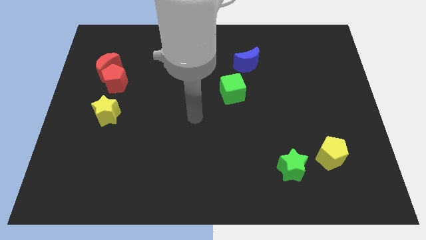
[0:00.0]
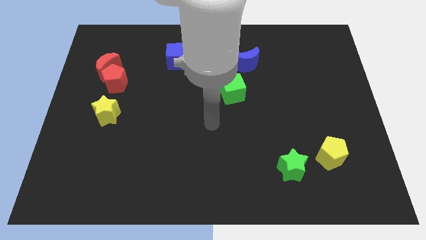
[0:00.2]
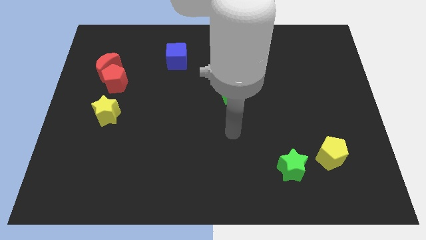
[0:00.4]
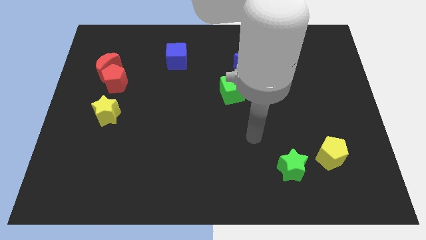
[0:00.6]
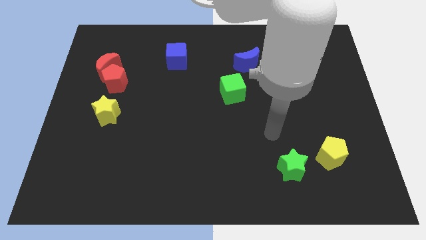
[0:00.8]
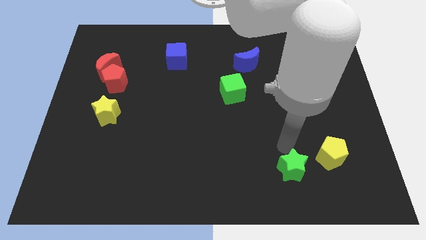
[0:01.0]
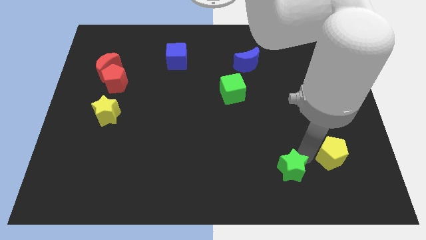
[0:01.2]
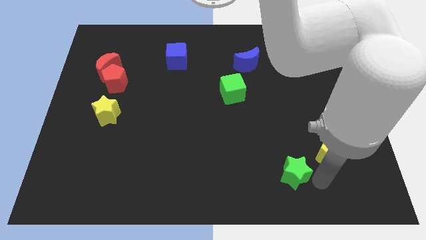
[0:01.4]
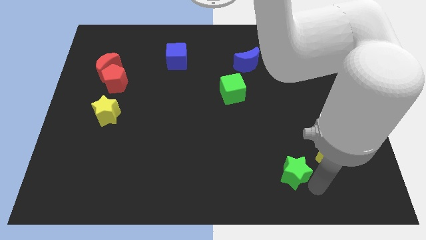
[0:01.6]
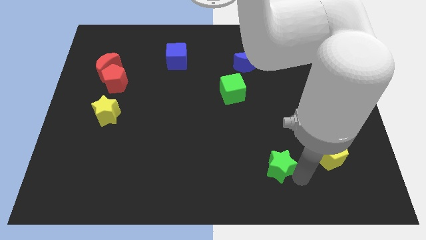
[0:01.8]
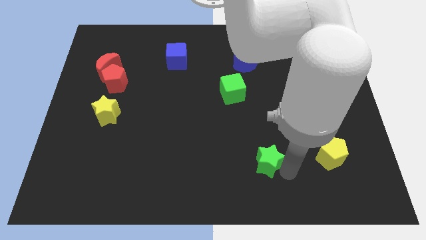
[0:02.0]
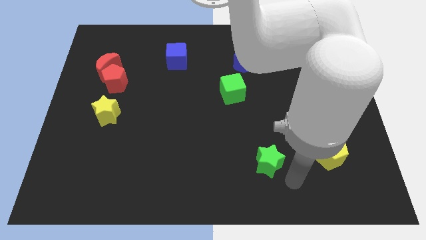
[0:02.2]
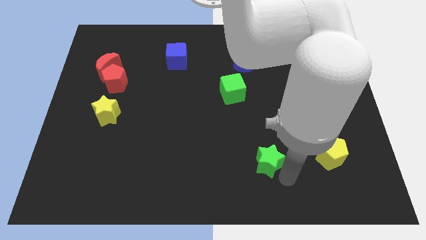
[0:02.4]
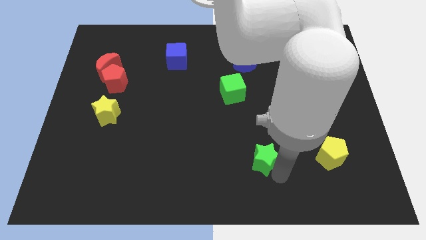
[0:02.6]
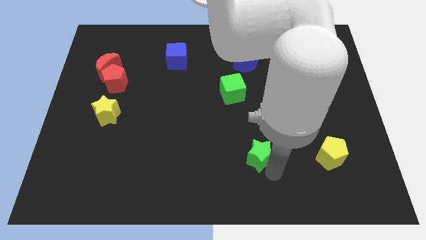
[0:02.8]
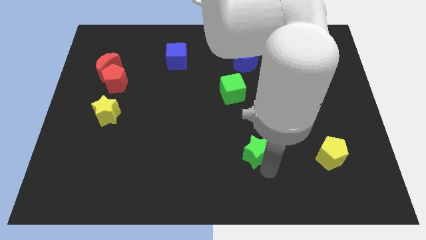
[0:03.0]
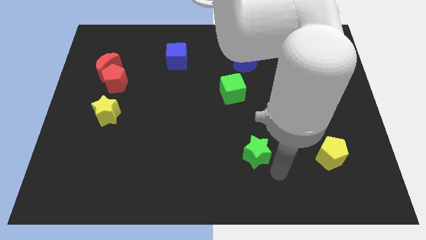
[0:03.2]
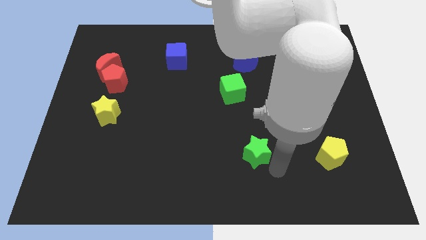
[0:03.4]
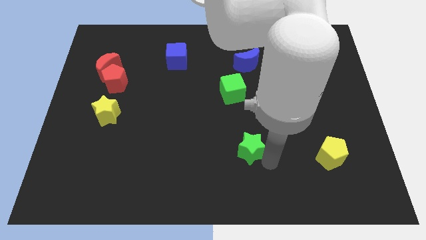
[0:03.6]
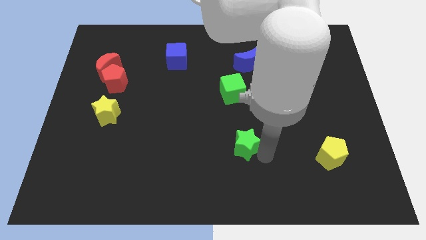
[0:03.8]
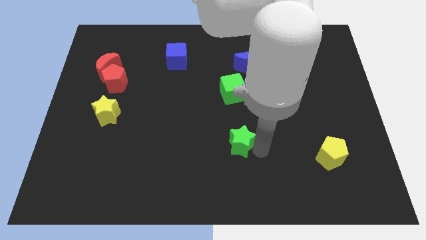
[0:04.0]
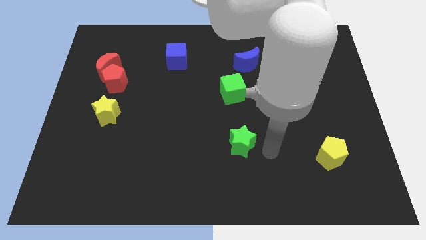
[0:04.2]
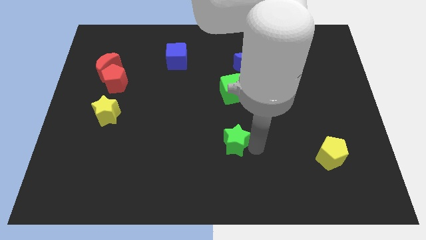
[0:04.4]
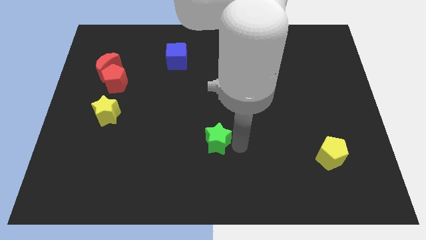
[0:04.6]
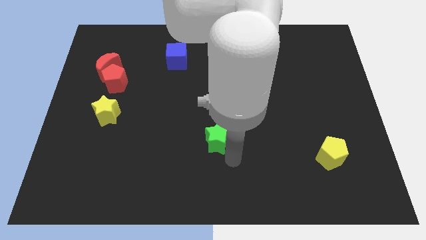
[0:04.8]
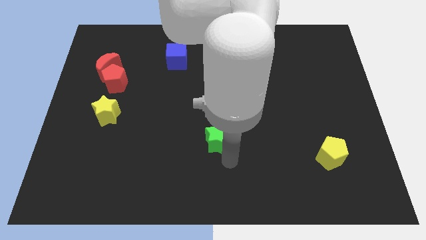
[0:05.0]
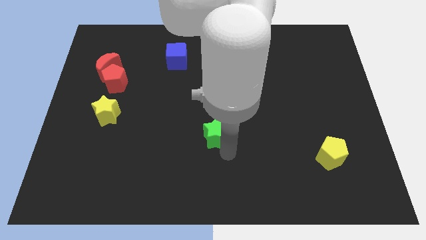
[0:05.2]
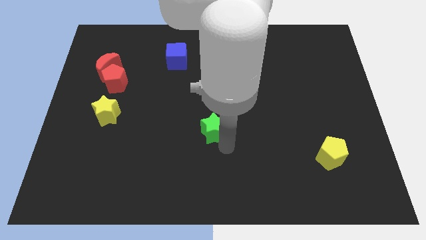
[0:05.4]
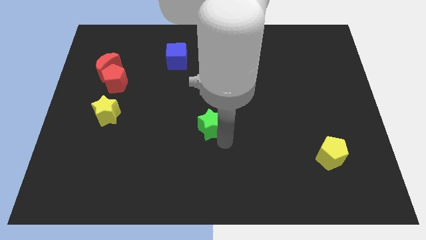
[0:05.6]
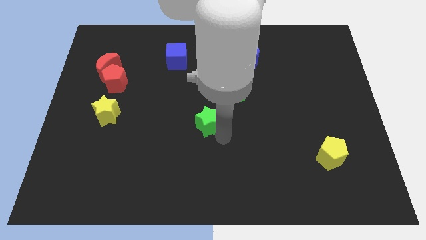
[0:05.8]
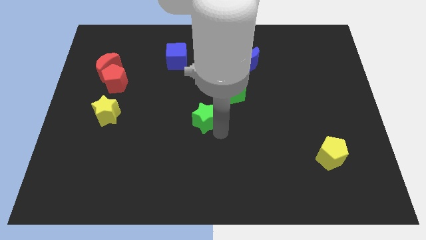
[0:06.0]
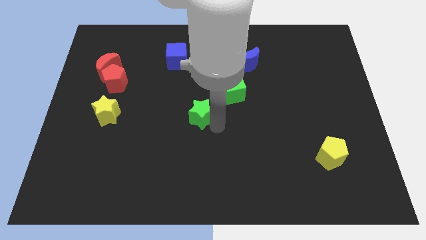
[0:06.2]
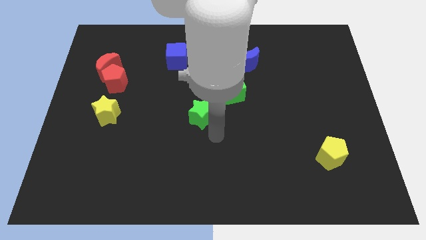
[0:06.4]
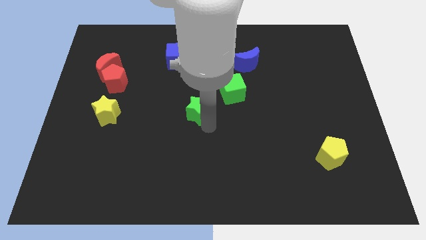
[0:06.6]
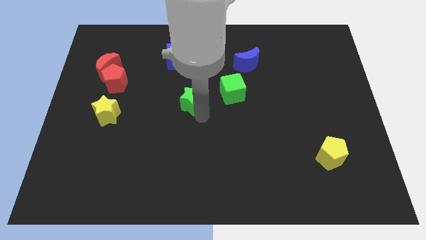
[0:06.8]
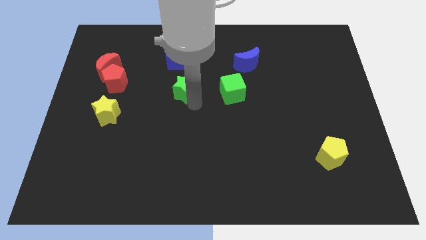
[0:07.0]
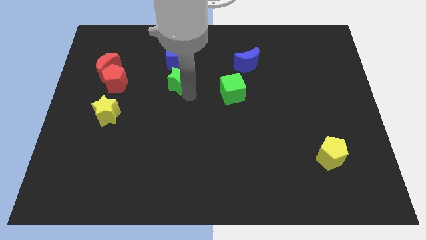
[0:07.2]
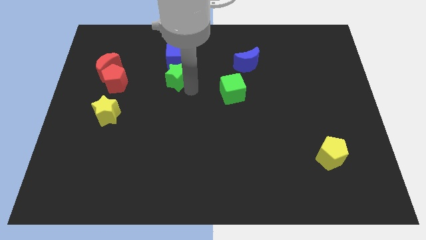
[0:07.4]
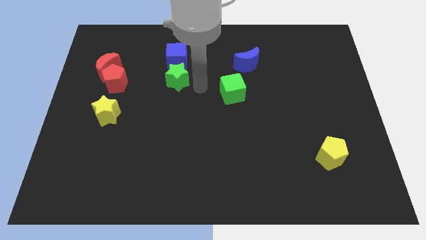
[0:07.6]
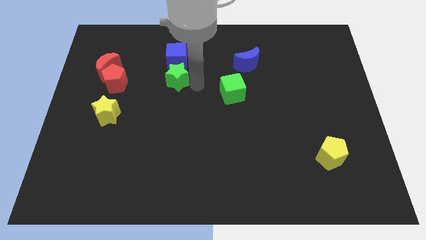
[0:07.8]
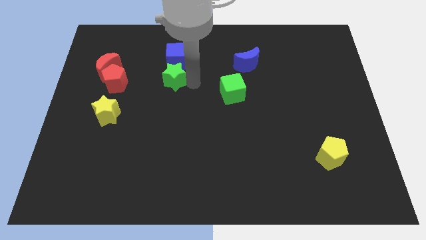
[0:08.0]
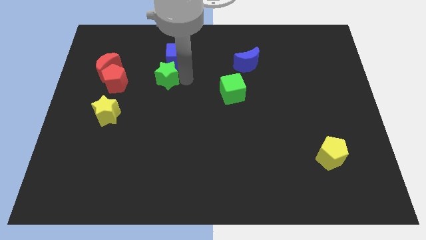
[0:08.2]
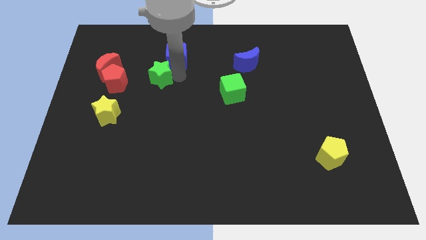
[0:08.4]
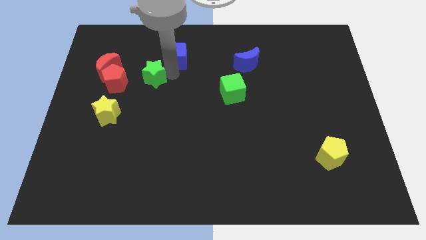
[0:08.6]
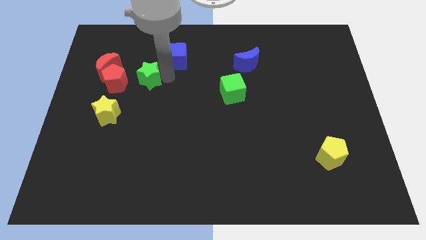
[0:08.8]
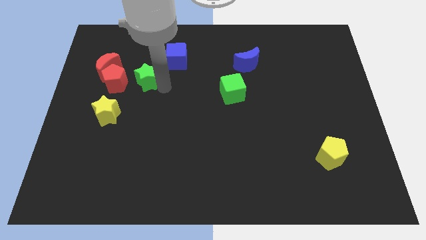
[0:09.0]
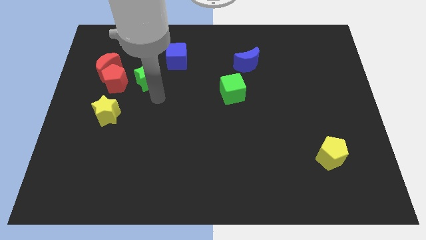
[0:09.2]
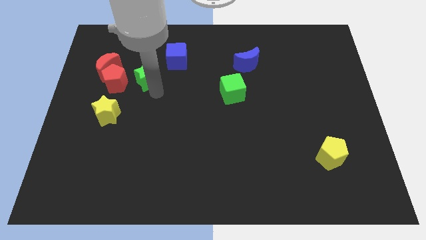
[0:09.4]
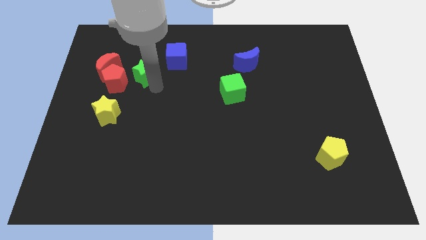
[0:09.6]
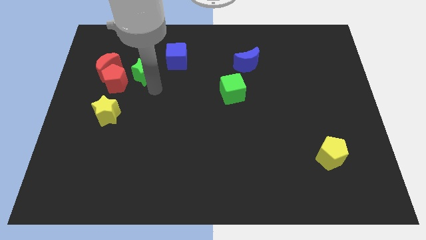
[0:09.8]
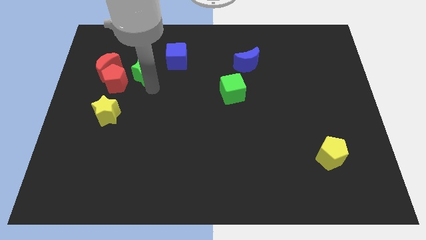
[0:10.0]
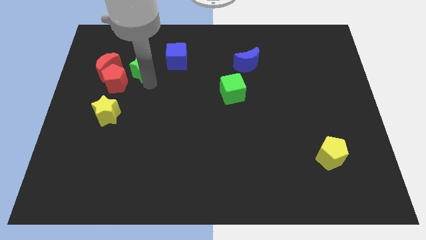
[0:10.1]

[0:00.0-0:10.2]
move the green star just left of the blue cube

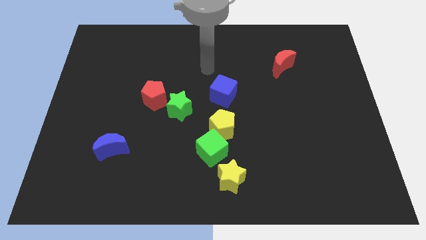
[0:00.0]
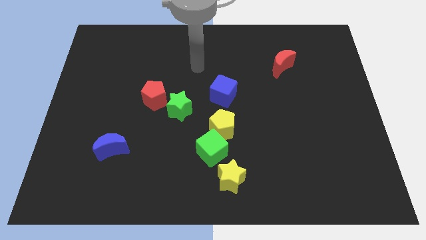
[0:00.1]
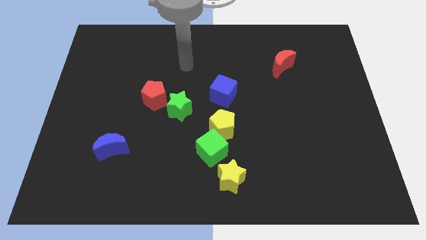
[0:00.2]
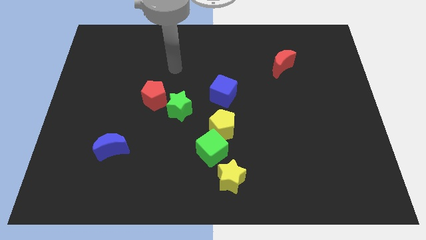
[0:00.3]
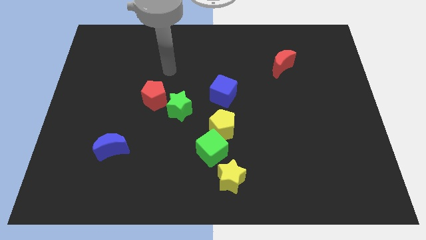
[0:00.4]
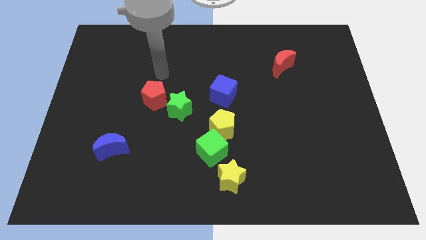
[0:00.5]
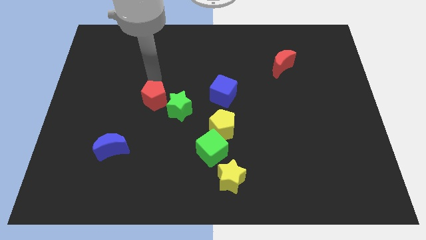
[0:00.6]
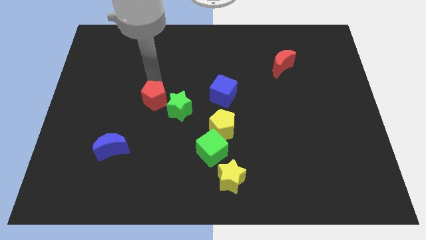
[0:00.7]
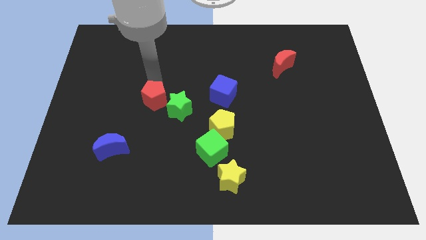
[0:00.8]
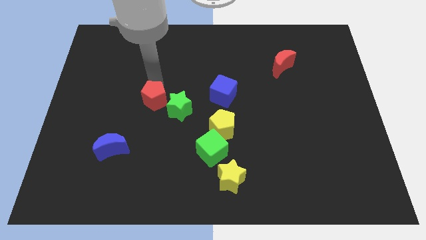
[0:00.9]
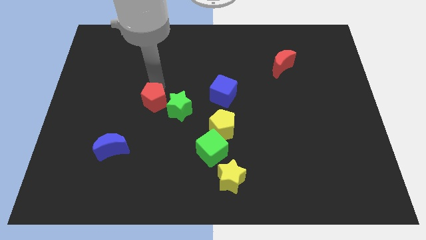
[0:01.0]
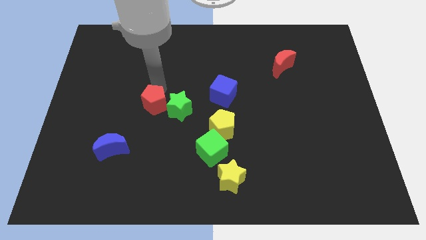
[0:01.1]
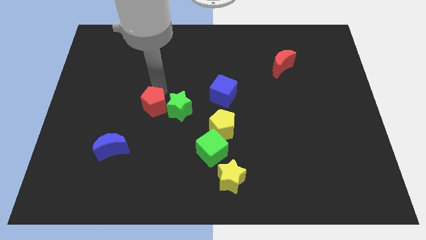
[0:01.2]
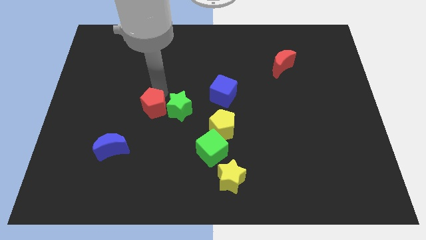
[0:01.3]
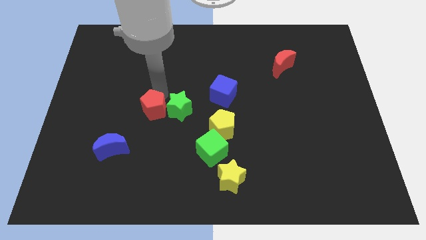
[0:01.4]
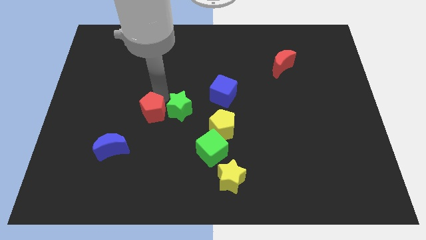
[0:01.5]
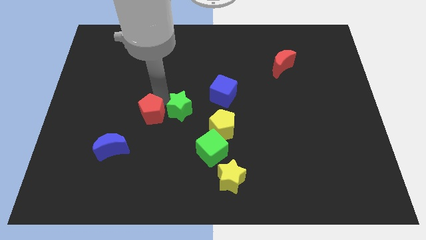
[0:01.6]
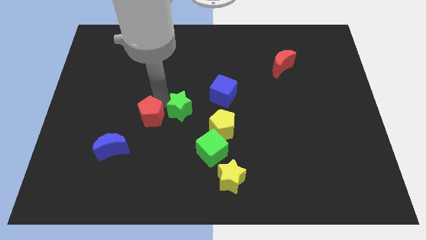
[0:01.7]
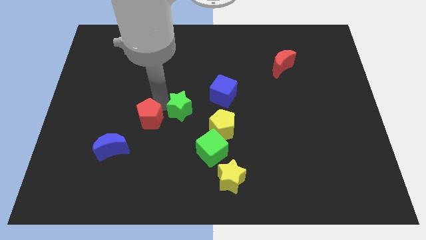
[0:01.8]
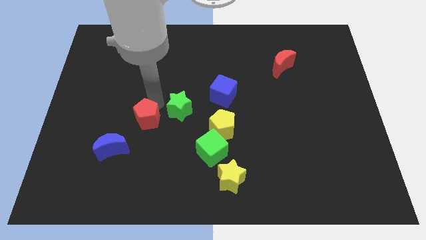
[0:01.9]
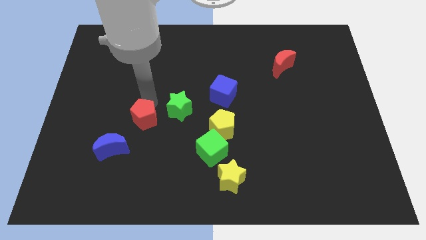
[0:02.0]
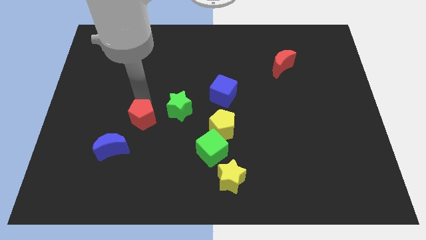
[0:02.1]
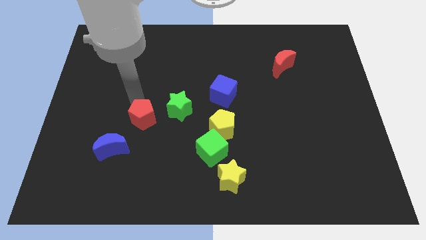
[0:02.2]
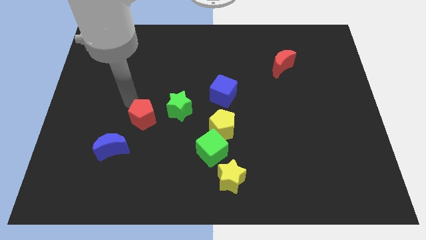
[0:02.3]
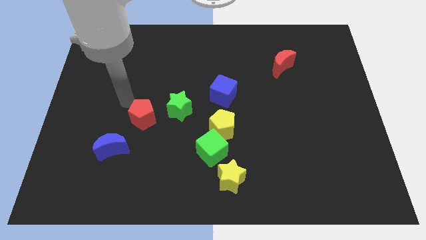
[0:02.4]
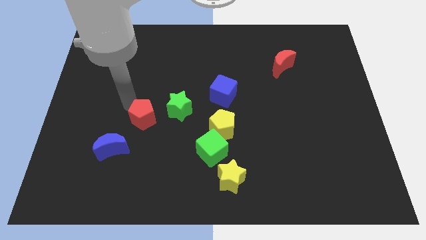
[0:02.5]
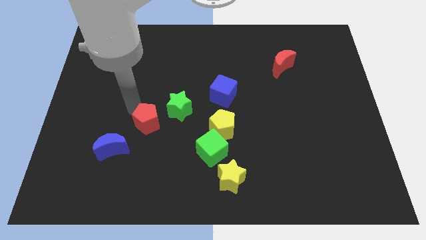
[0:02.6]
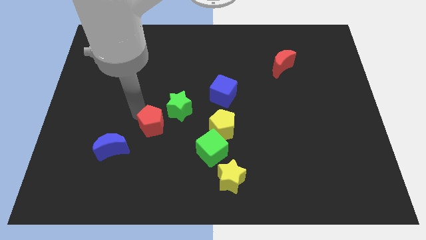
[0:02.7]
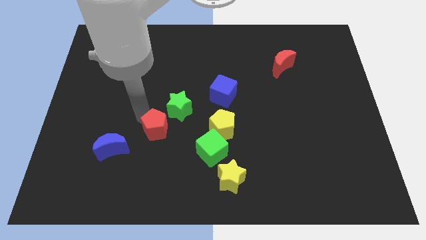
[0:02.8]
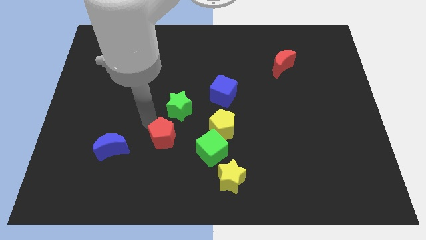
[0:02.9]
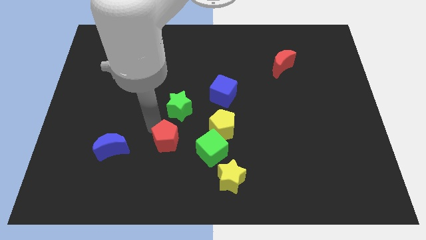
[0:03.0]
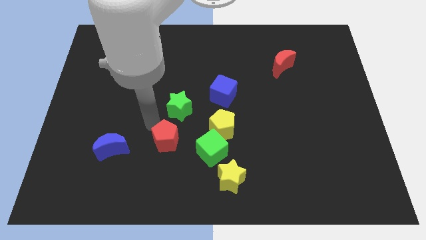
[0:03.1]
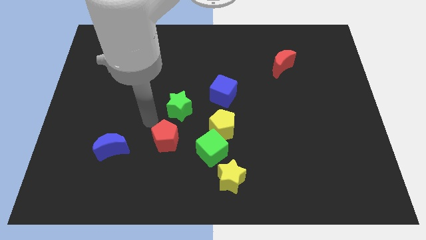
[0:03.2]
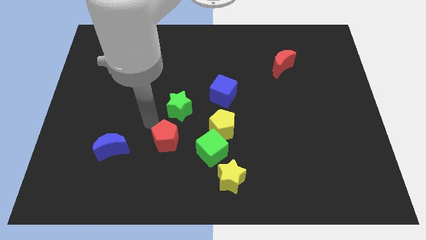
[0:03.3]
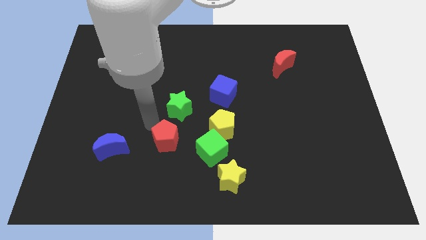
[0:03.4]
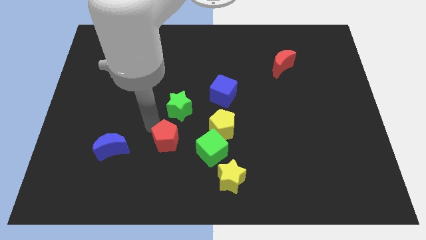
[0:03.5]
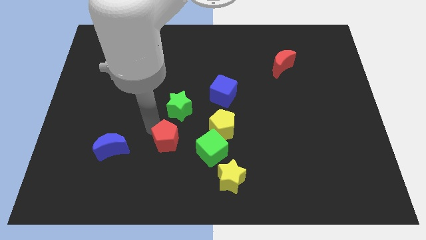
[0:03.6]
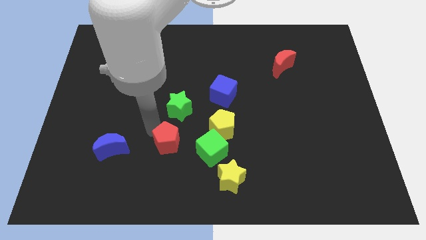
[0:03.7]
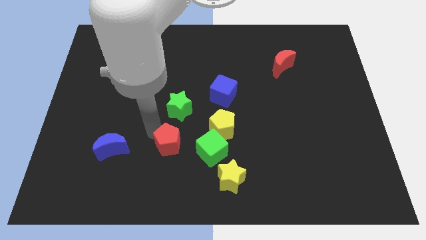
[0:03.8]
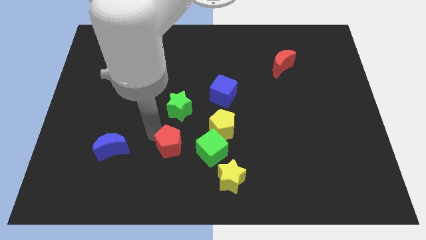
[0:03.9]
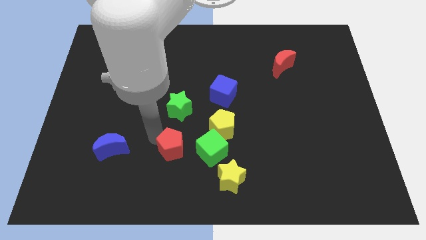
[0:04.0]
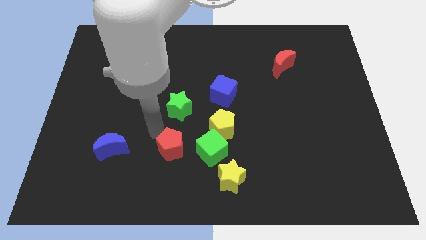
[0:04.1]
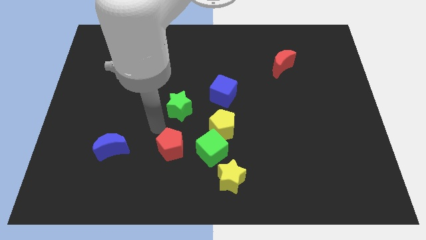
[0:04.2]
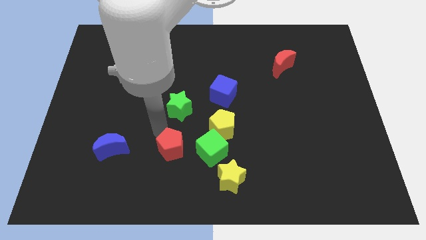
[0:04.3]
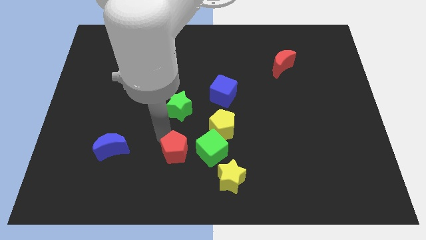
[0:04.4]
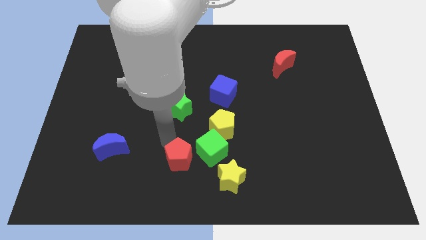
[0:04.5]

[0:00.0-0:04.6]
put the red pentagon to the bottom left side of the green cube
